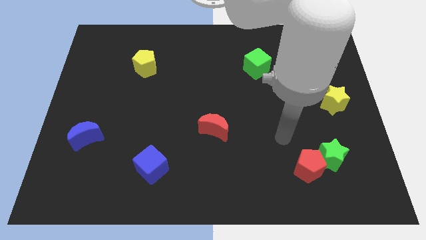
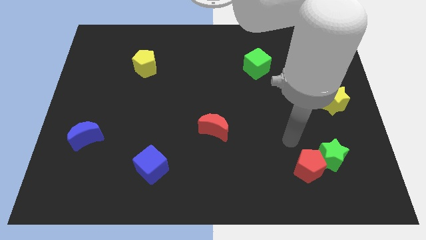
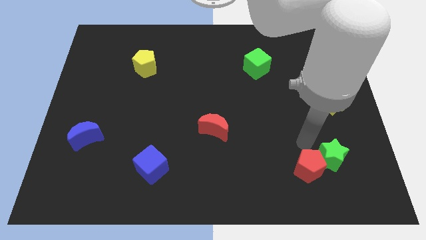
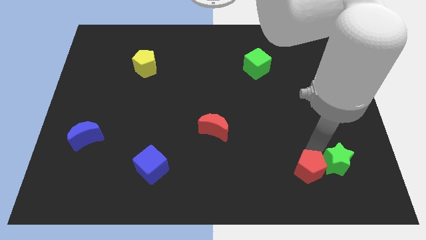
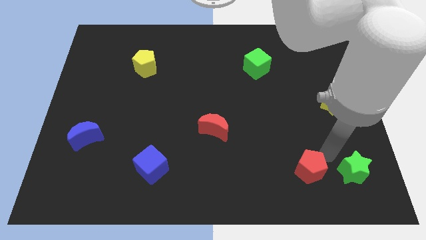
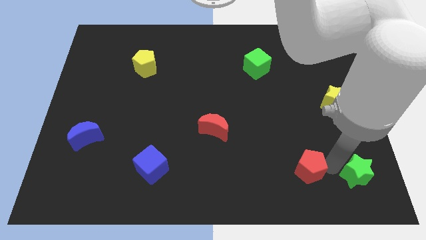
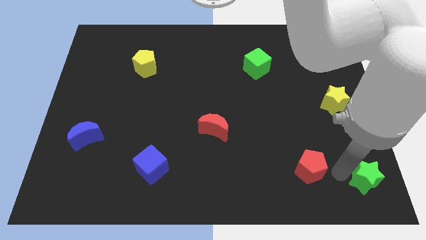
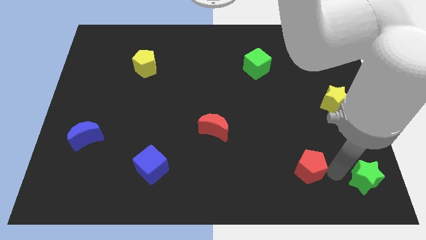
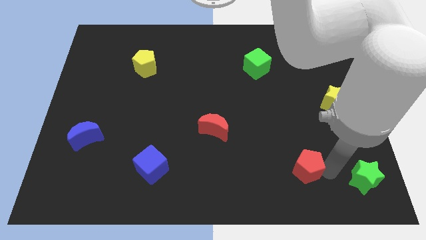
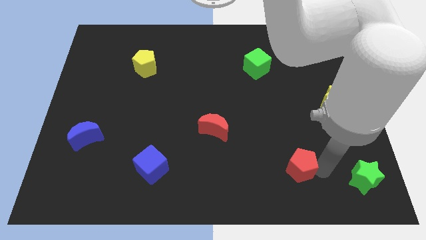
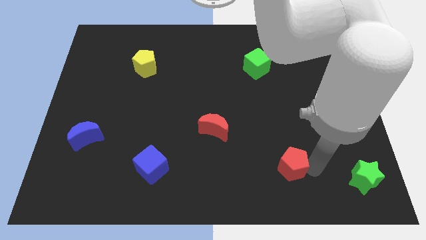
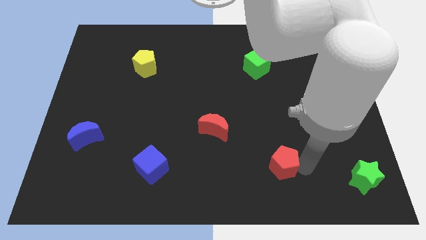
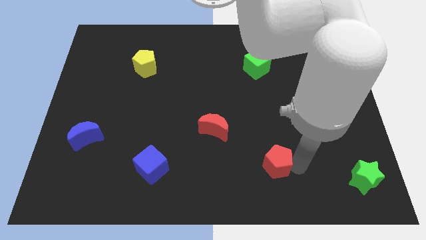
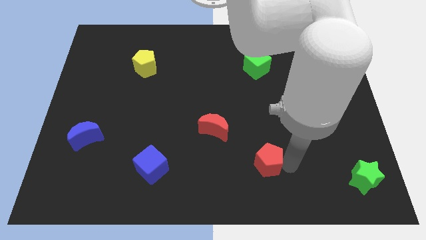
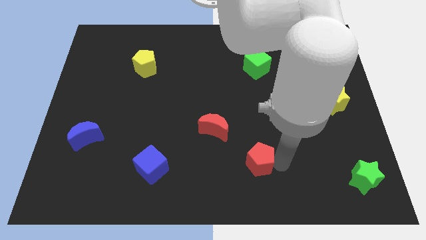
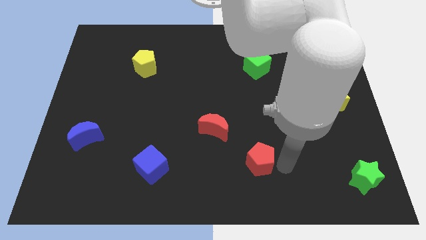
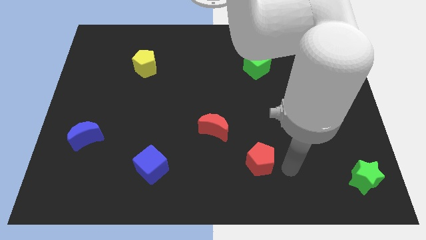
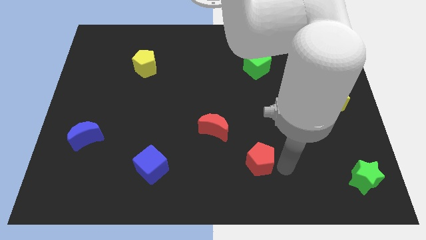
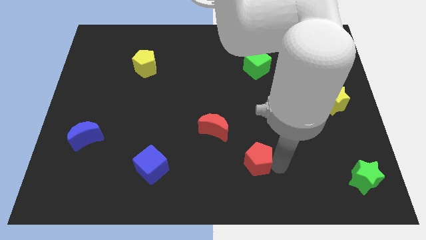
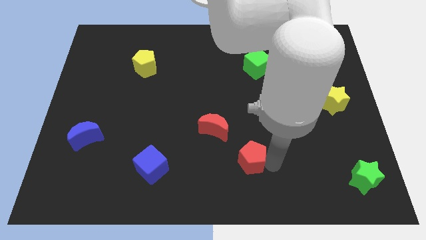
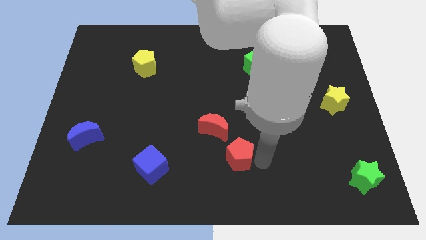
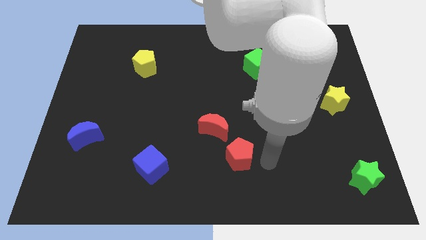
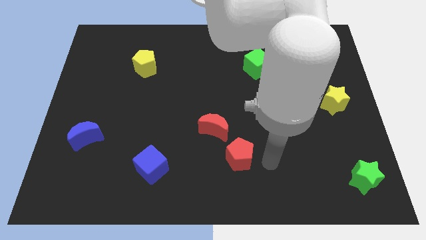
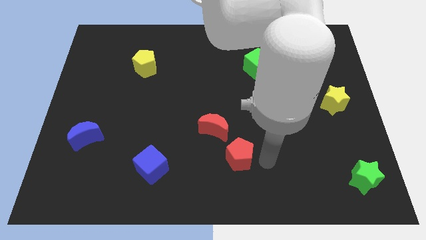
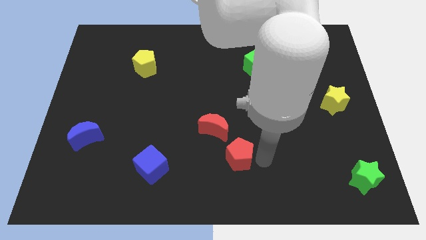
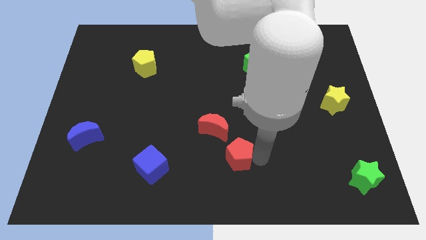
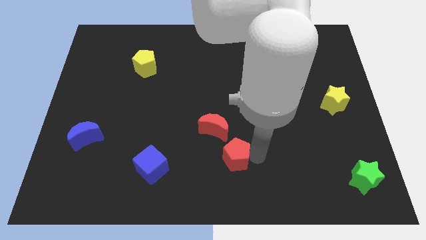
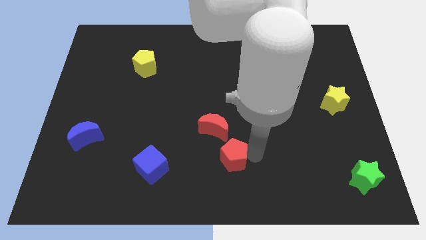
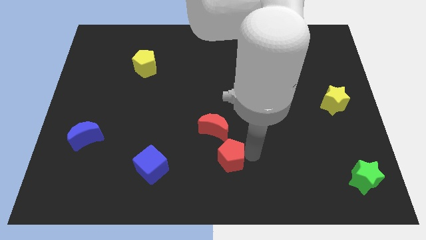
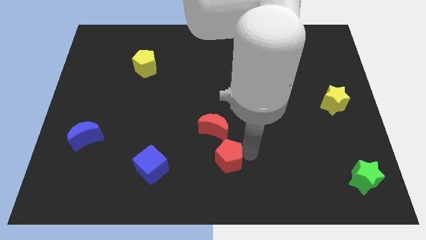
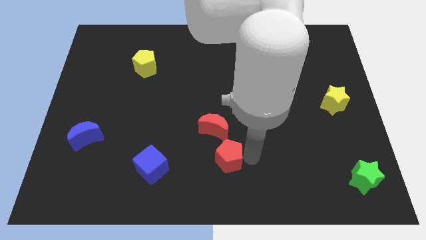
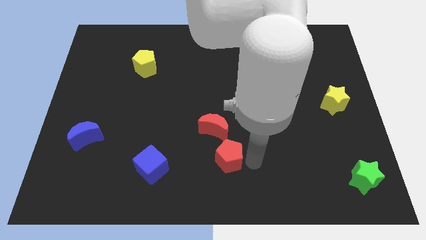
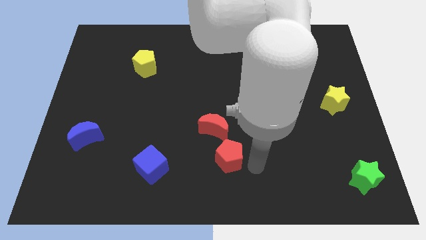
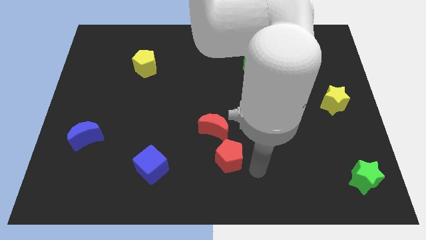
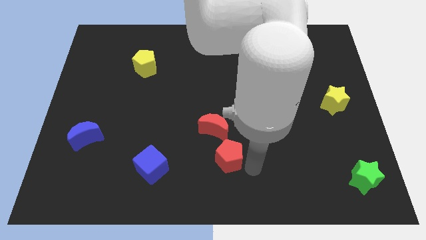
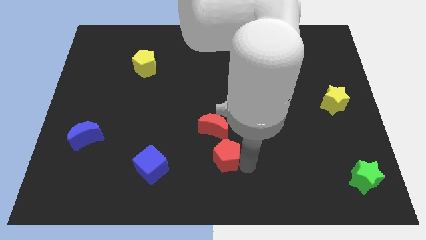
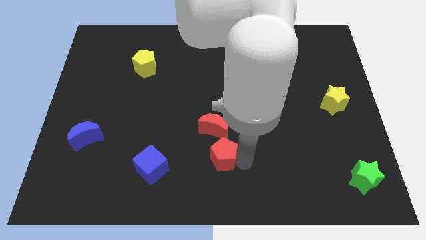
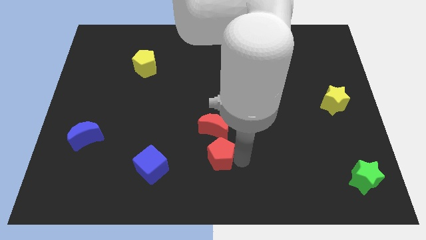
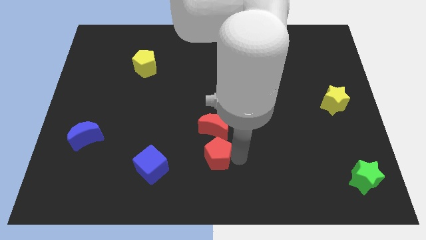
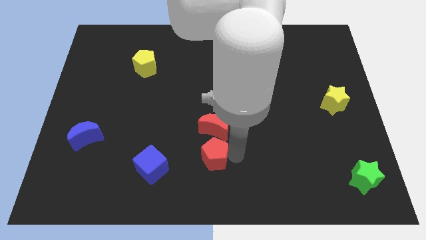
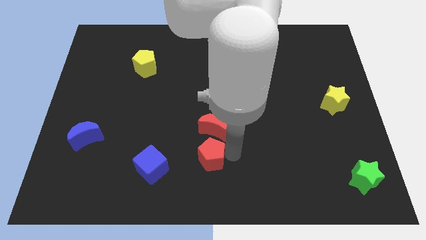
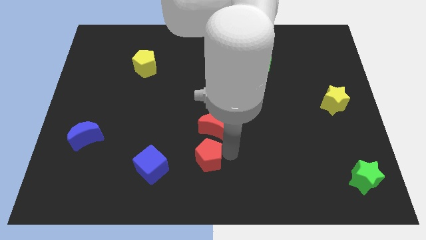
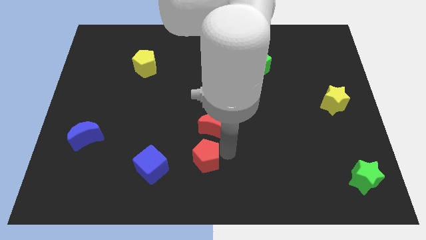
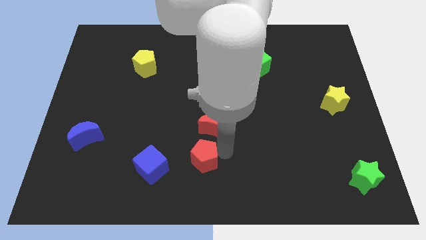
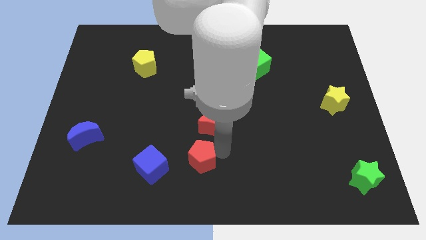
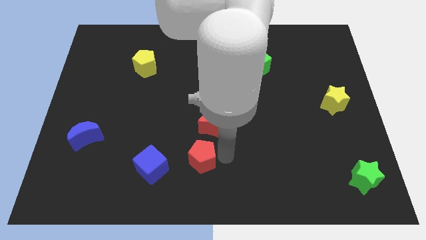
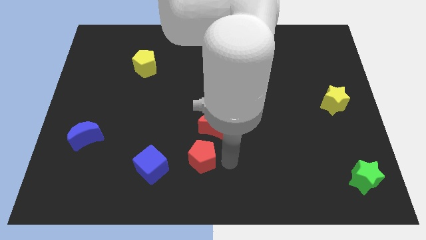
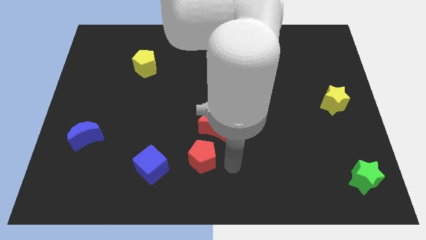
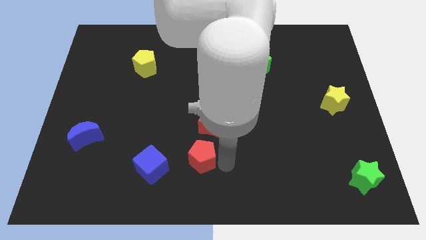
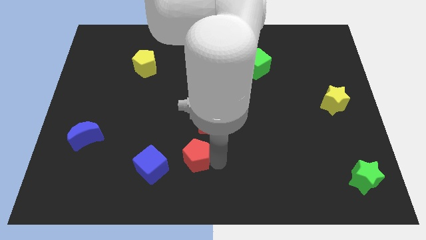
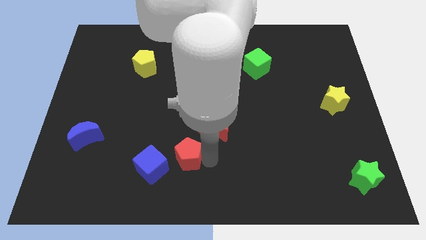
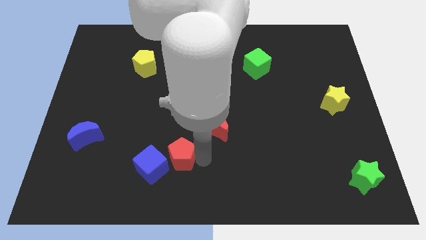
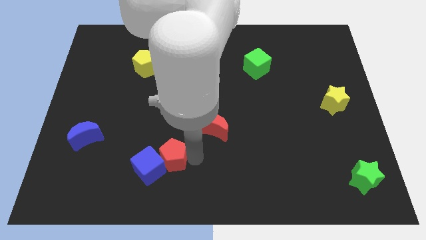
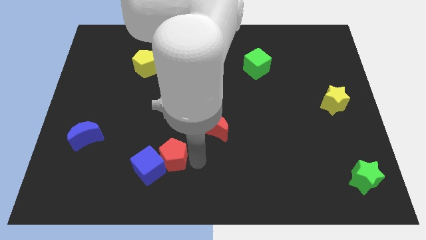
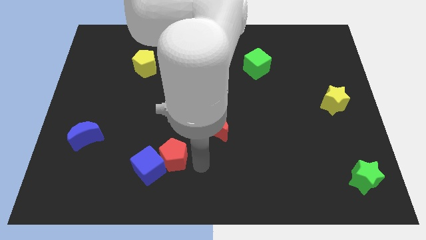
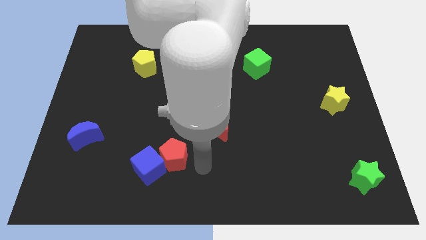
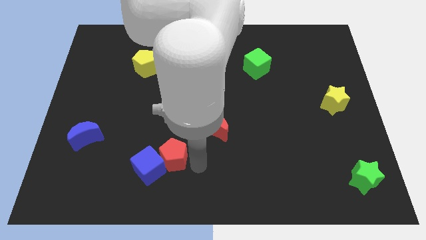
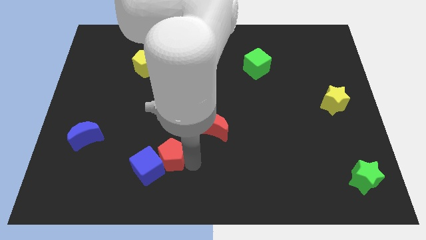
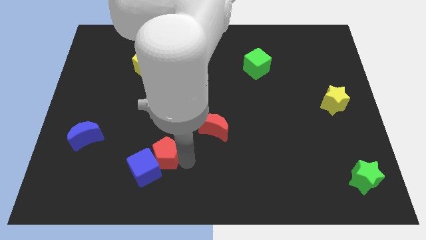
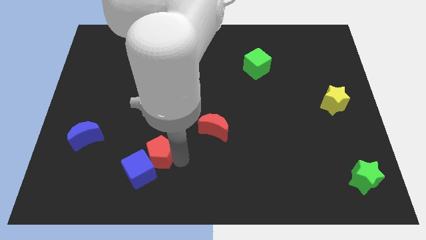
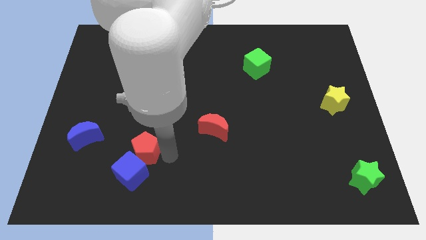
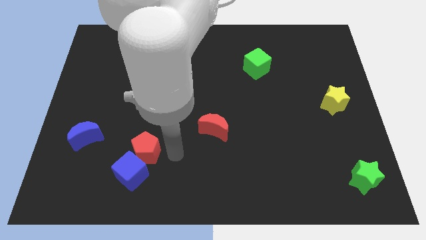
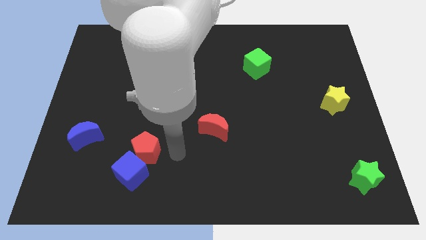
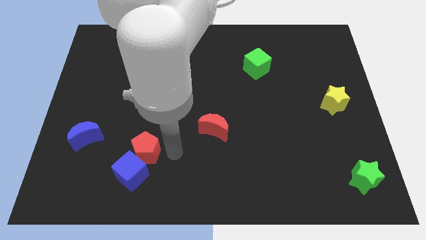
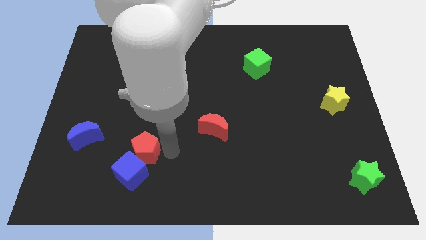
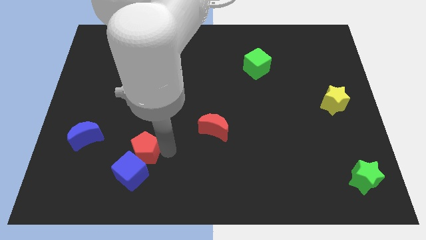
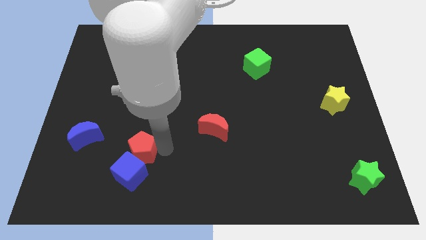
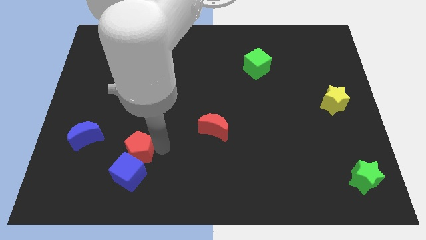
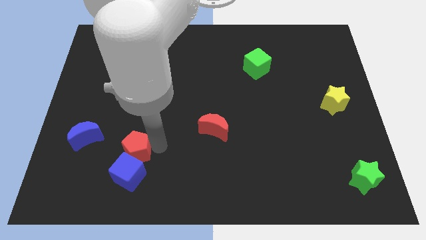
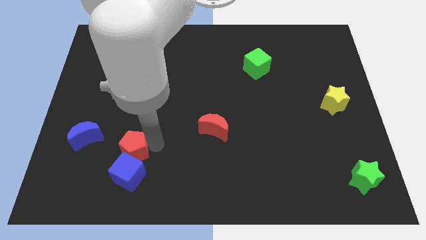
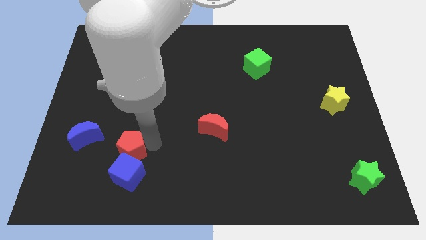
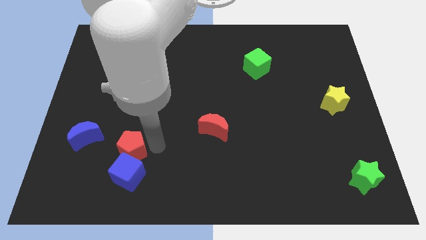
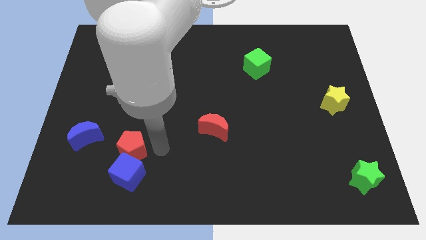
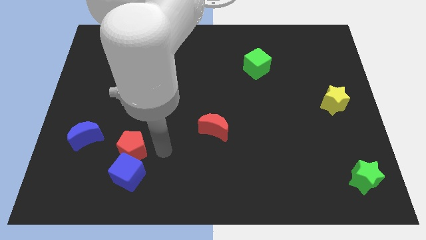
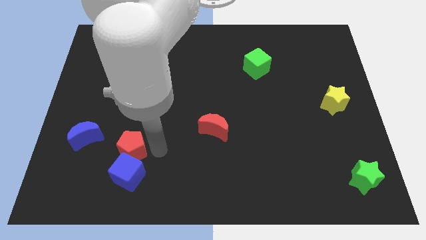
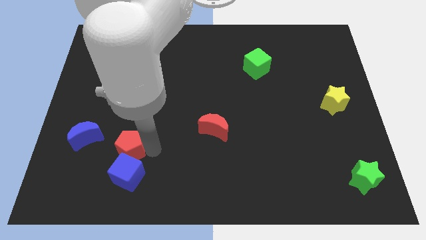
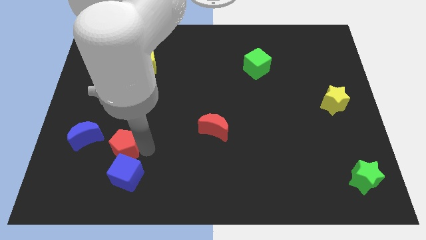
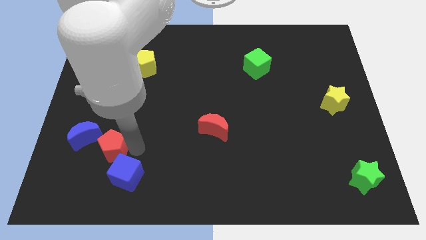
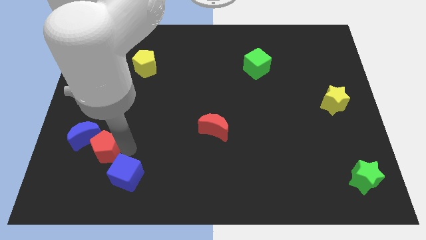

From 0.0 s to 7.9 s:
put the red pentagon towards the blue moon
